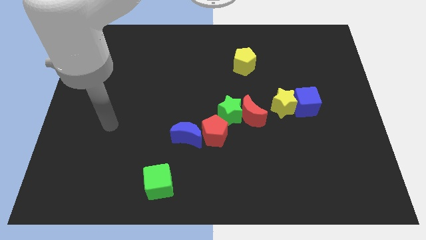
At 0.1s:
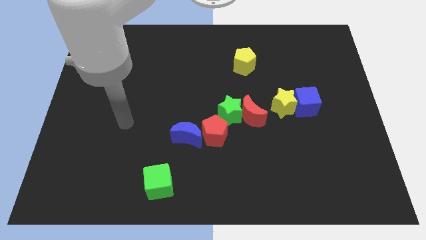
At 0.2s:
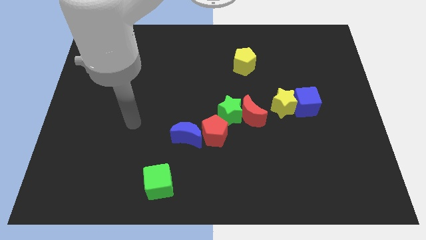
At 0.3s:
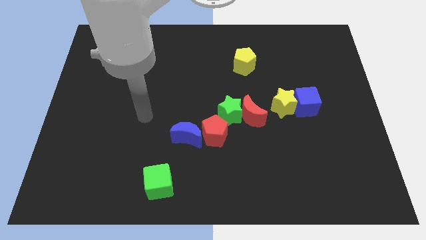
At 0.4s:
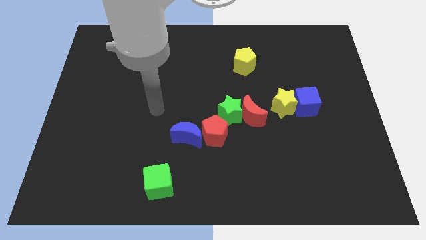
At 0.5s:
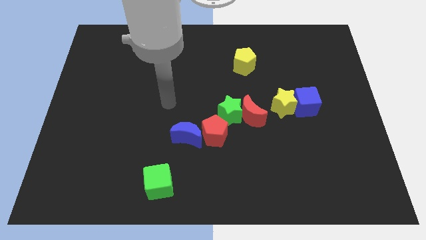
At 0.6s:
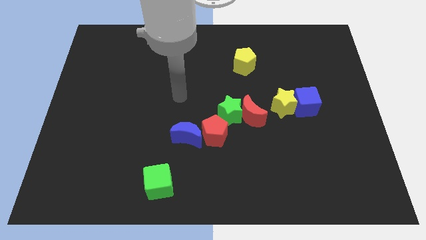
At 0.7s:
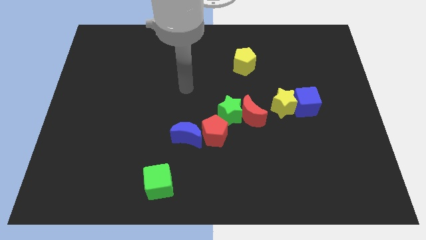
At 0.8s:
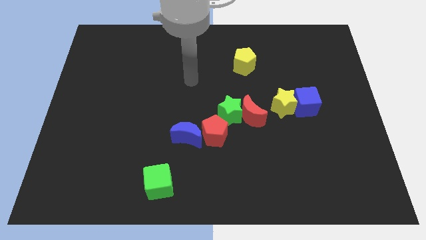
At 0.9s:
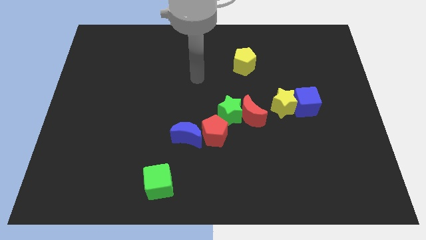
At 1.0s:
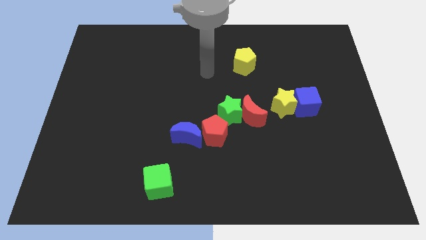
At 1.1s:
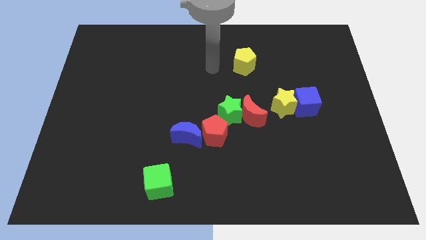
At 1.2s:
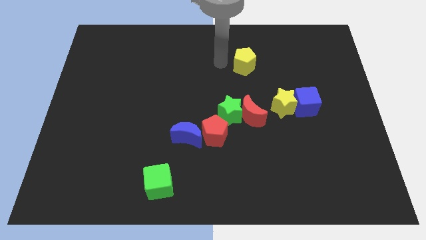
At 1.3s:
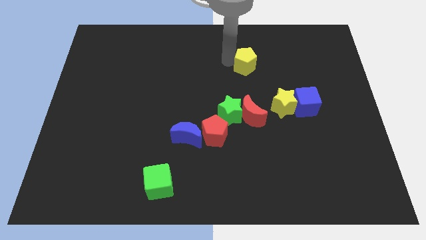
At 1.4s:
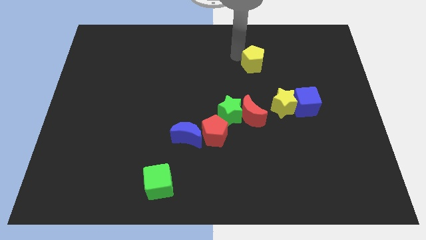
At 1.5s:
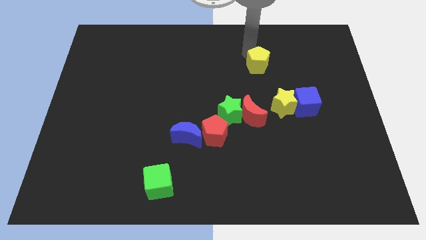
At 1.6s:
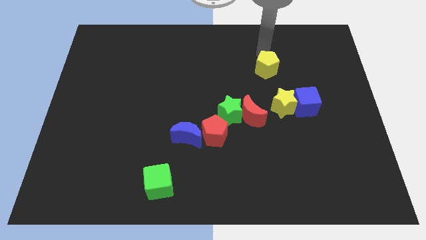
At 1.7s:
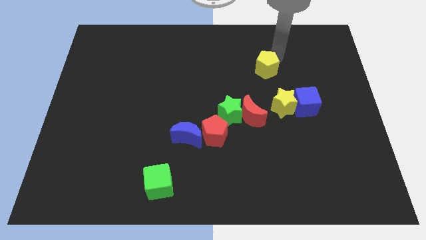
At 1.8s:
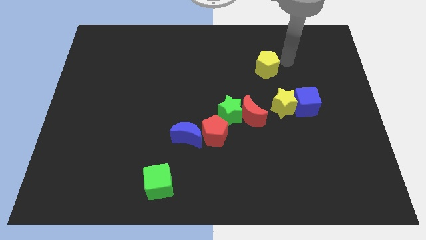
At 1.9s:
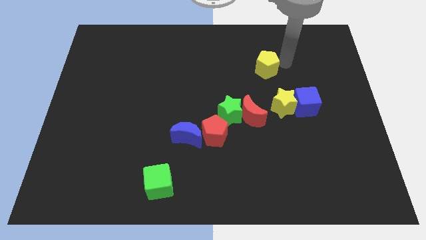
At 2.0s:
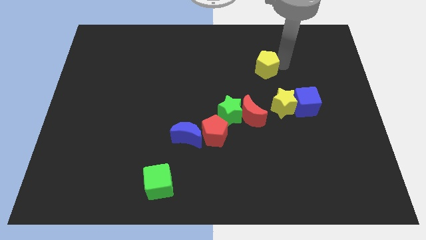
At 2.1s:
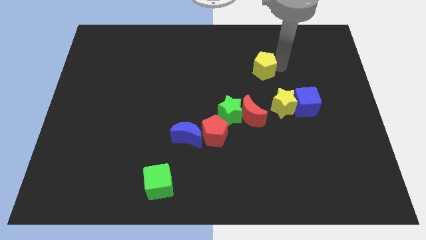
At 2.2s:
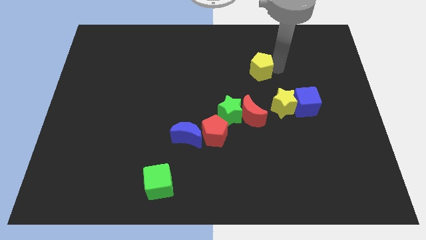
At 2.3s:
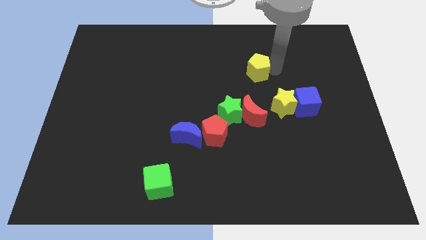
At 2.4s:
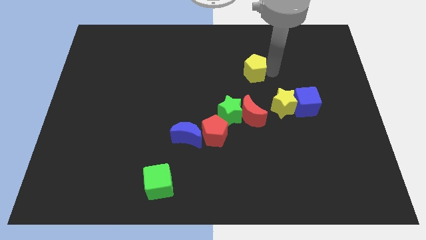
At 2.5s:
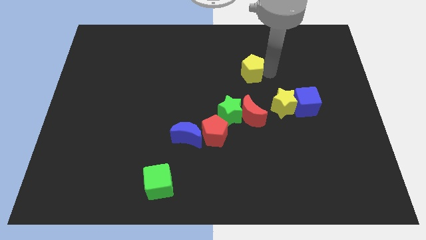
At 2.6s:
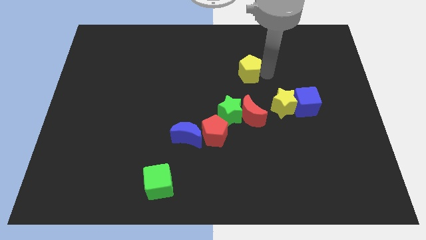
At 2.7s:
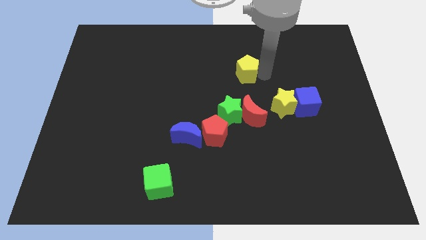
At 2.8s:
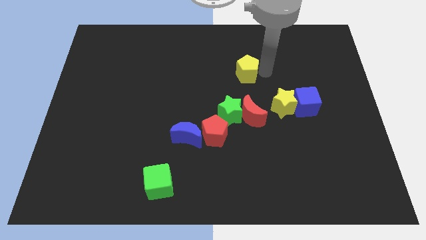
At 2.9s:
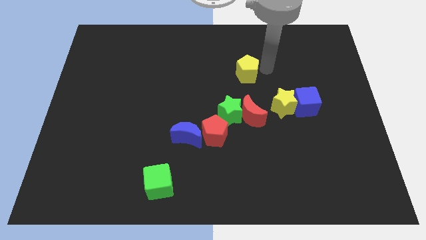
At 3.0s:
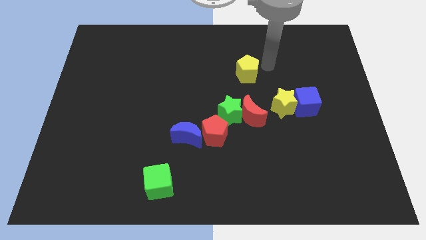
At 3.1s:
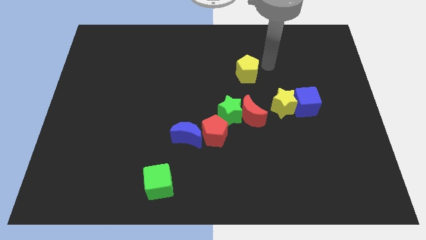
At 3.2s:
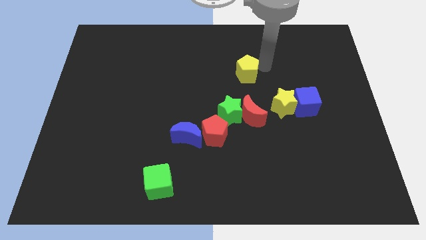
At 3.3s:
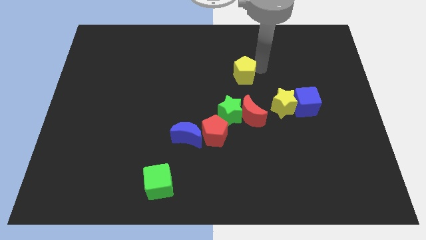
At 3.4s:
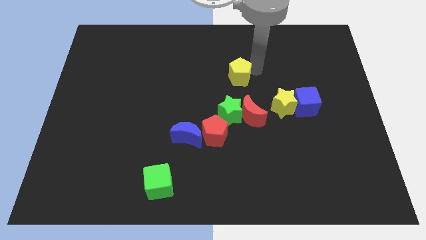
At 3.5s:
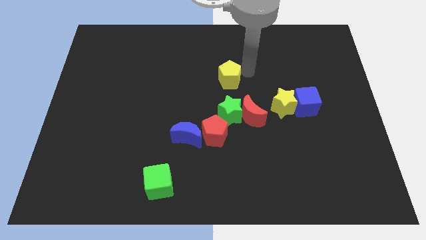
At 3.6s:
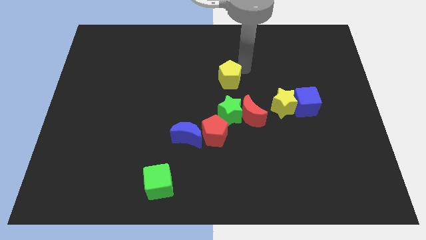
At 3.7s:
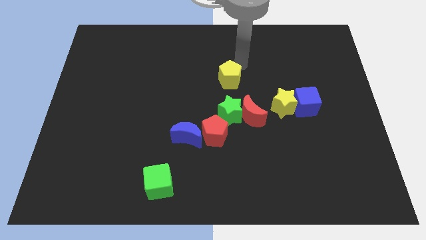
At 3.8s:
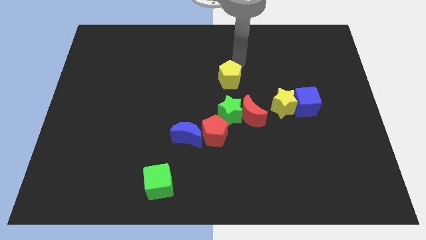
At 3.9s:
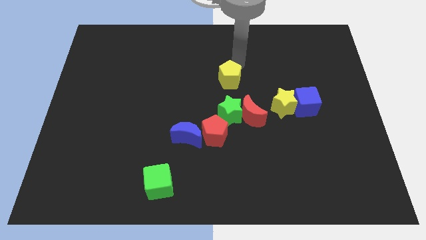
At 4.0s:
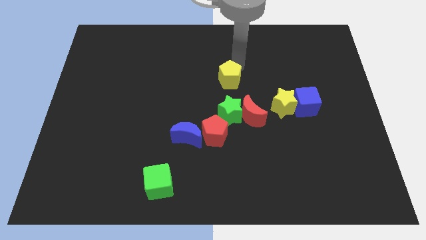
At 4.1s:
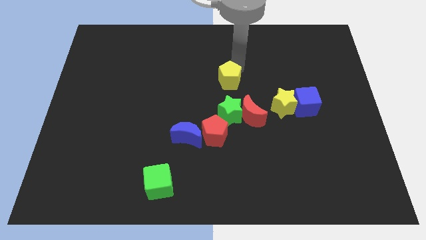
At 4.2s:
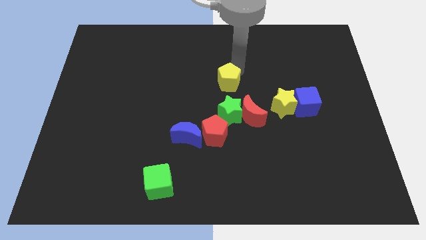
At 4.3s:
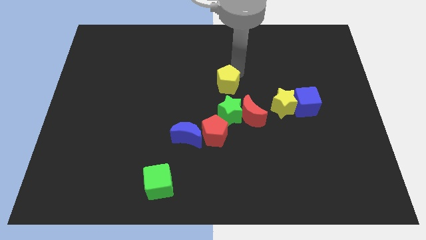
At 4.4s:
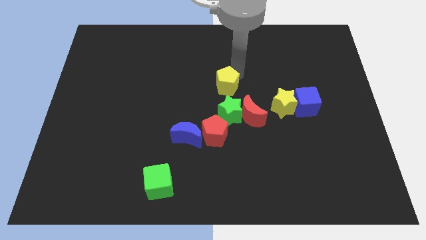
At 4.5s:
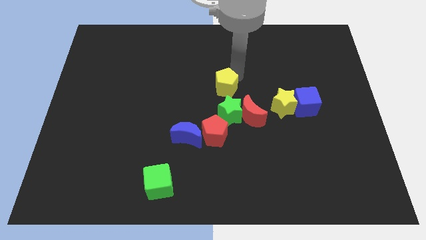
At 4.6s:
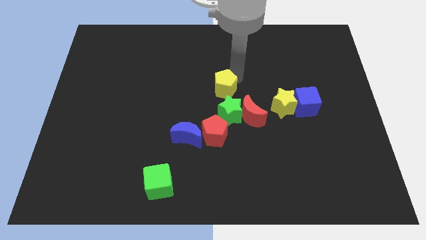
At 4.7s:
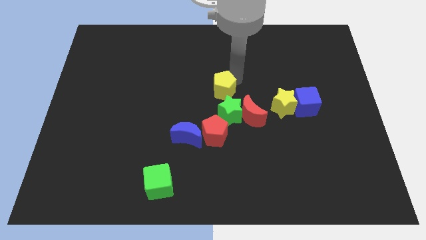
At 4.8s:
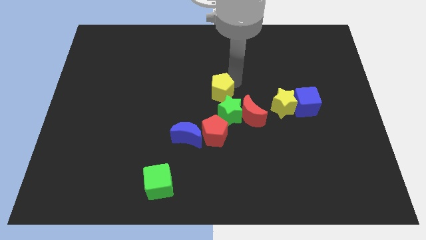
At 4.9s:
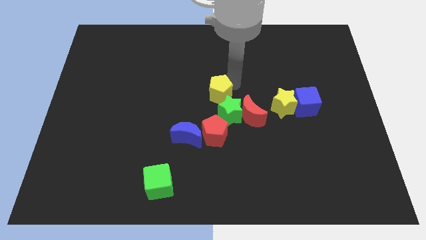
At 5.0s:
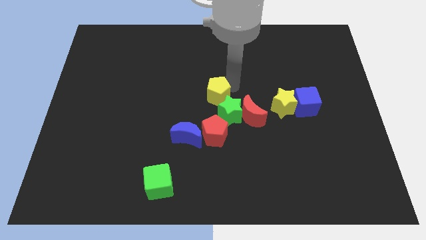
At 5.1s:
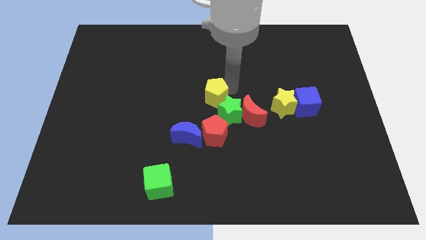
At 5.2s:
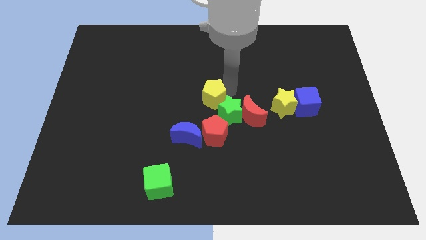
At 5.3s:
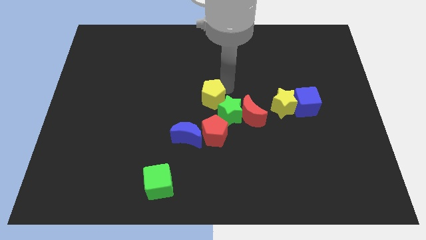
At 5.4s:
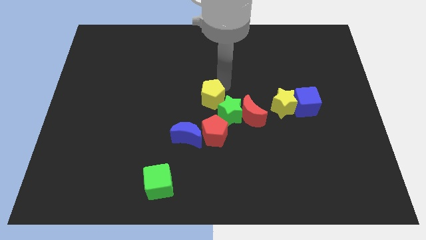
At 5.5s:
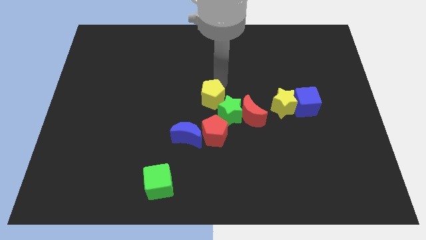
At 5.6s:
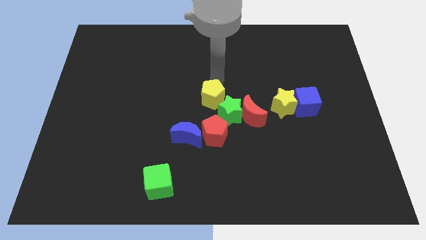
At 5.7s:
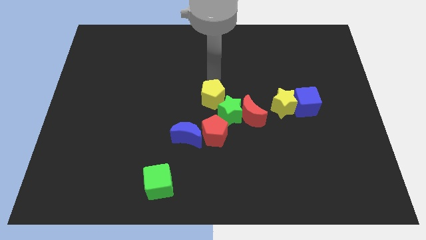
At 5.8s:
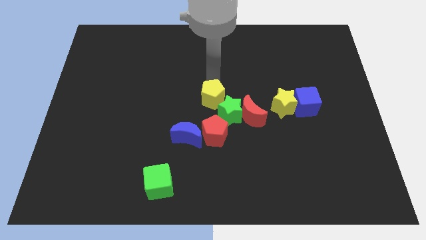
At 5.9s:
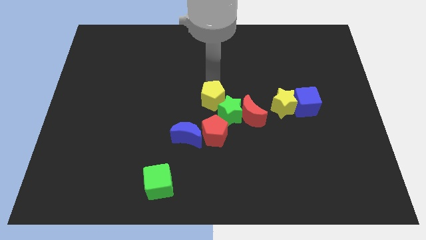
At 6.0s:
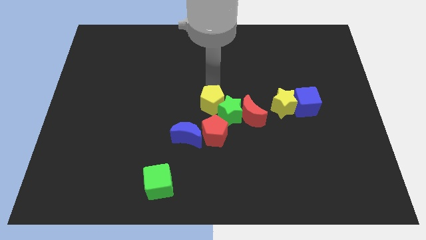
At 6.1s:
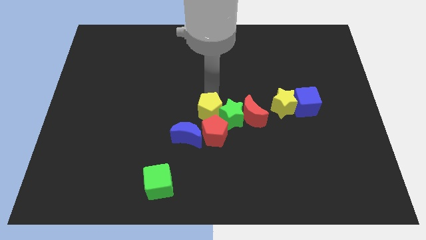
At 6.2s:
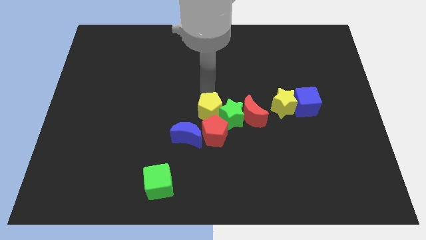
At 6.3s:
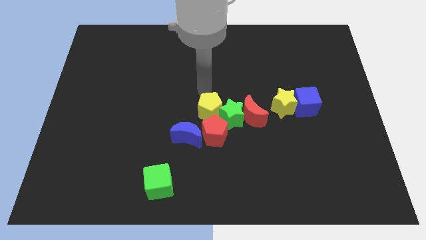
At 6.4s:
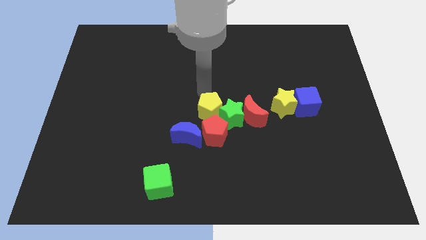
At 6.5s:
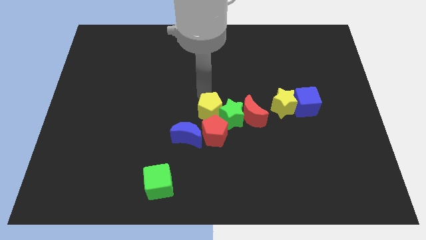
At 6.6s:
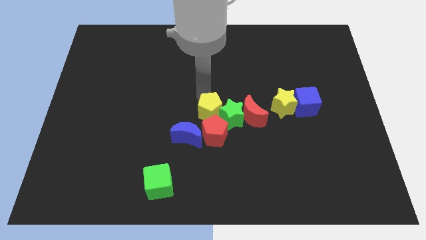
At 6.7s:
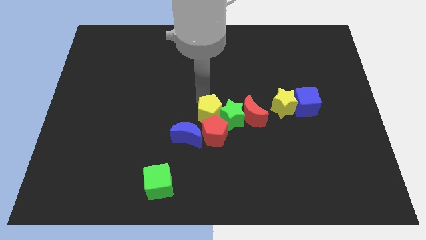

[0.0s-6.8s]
put the yellow pentagon close to the red pentagon
